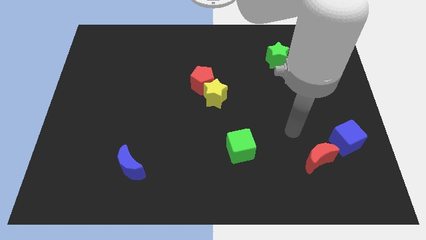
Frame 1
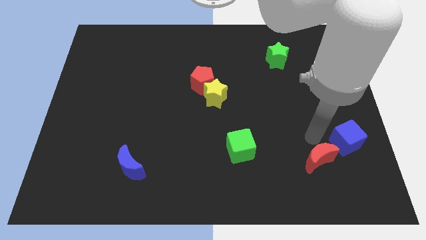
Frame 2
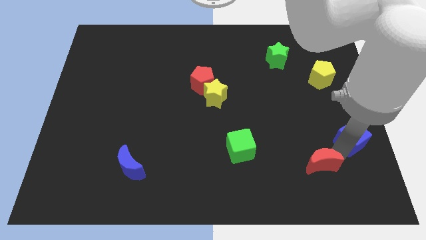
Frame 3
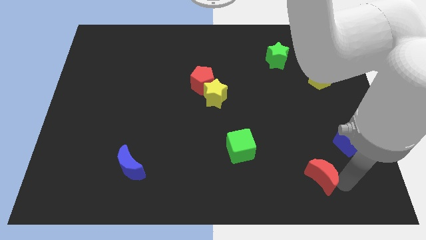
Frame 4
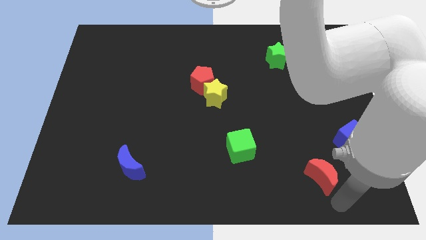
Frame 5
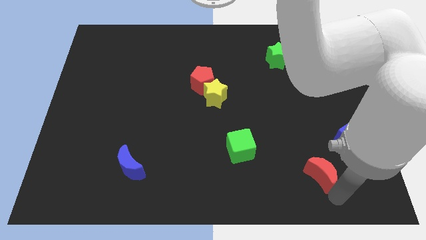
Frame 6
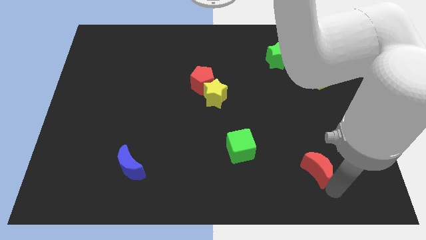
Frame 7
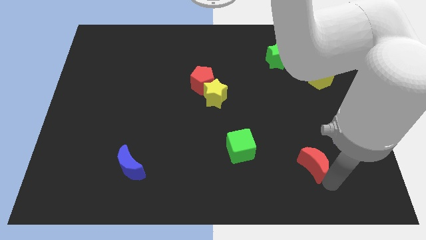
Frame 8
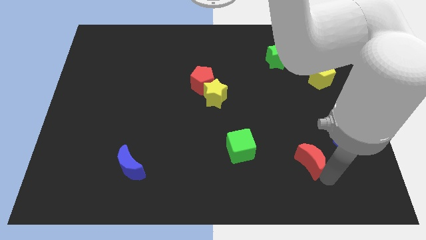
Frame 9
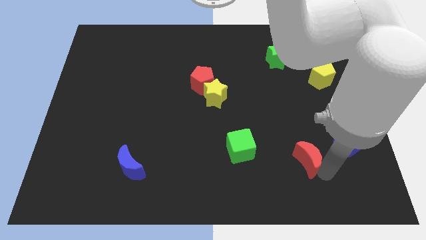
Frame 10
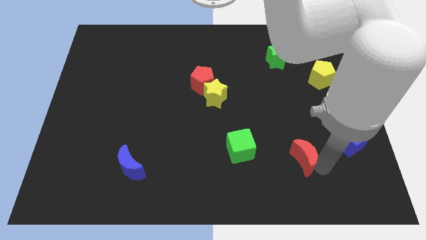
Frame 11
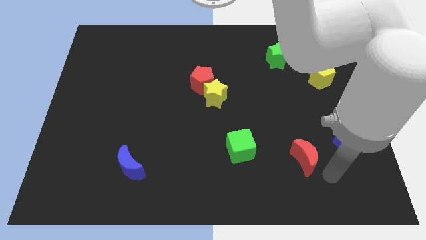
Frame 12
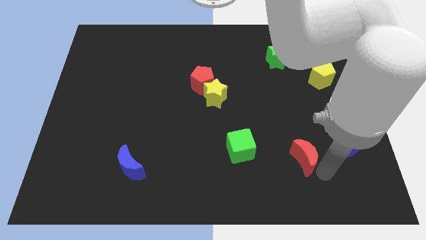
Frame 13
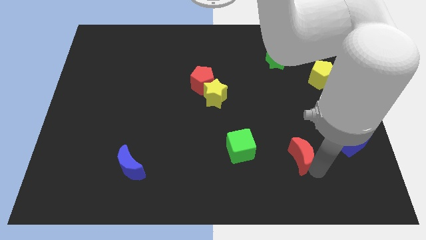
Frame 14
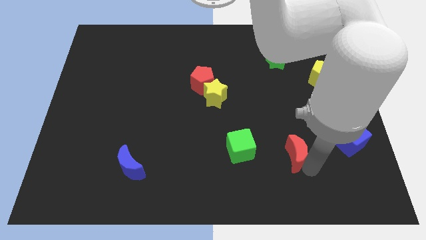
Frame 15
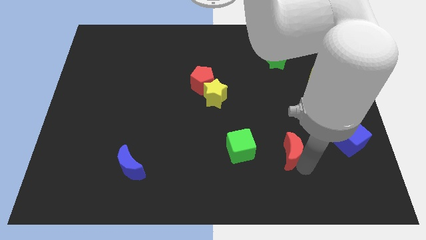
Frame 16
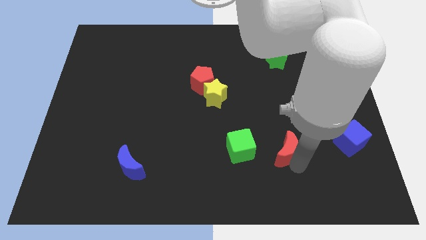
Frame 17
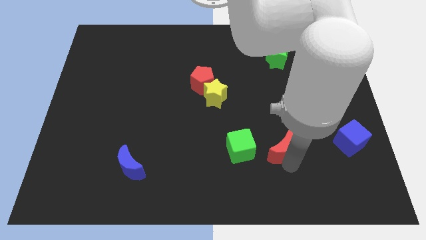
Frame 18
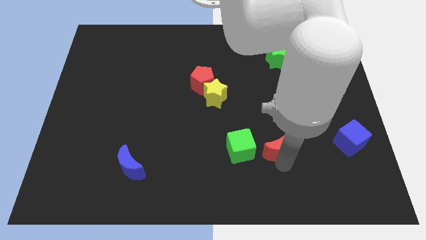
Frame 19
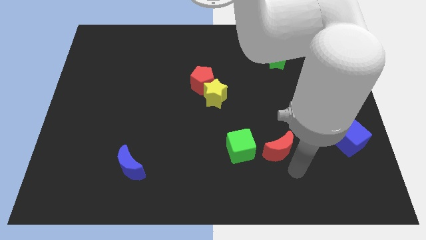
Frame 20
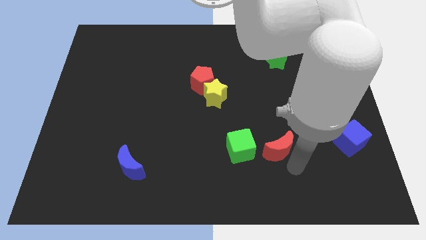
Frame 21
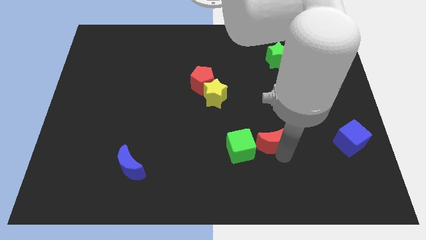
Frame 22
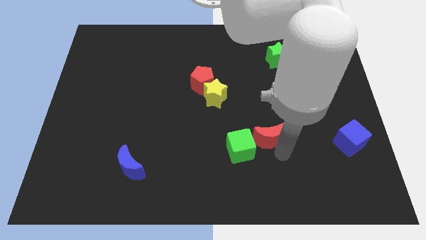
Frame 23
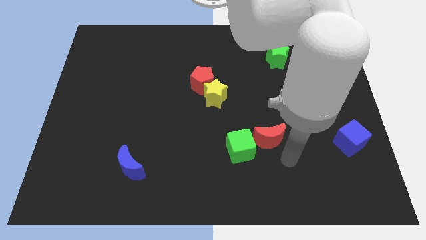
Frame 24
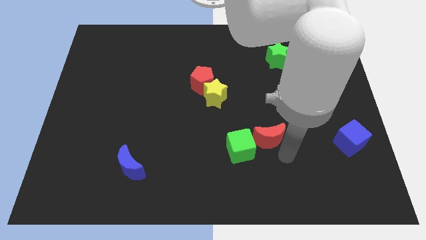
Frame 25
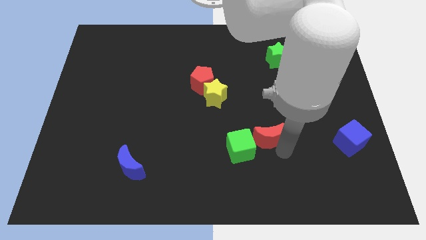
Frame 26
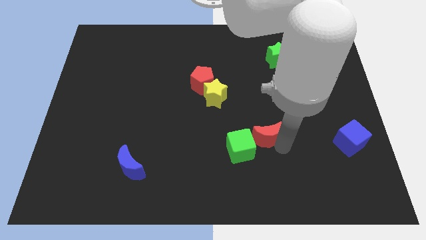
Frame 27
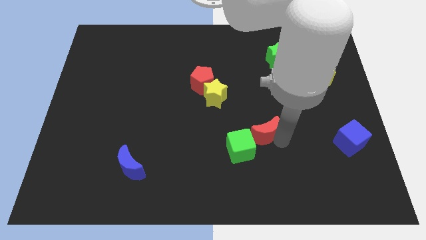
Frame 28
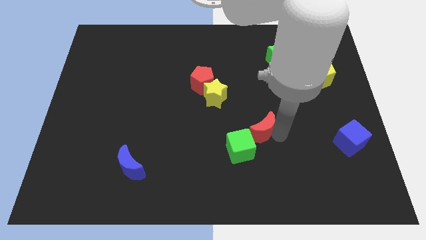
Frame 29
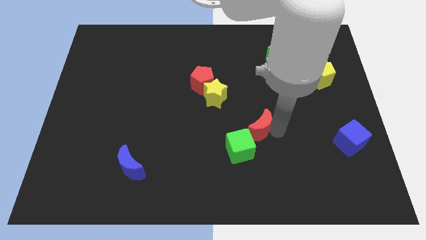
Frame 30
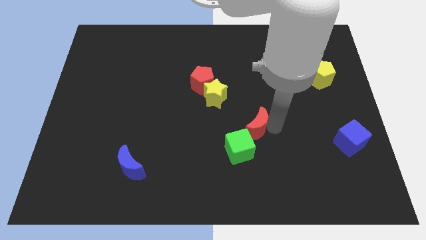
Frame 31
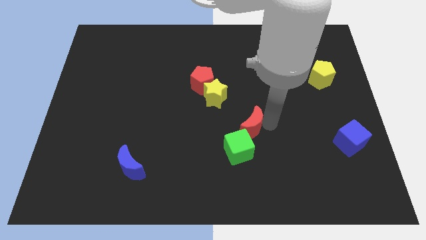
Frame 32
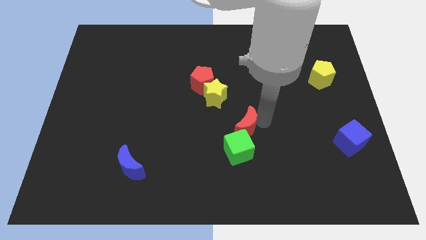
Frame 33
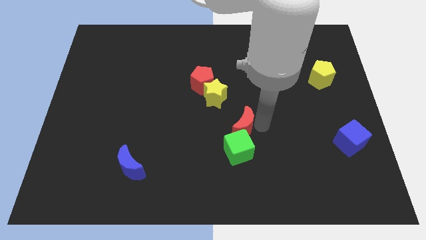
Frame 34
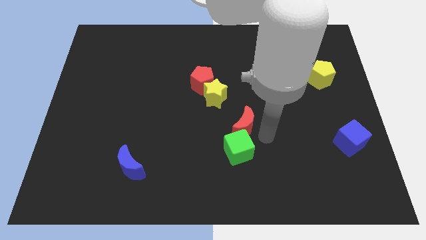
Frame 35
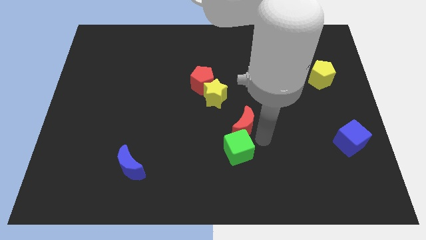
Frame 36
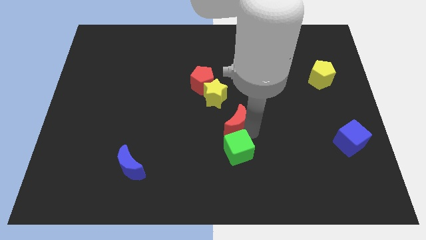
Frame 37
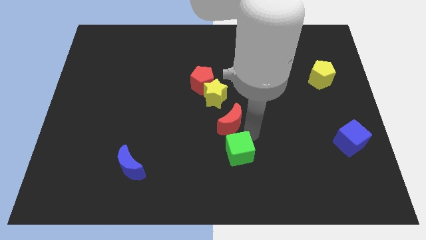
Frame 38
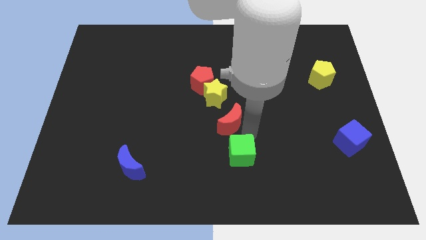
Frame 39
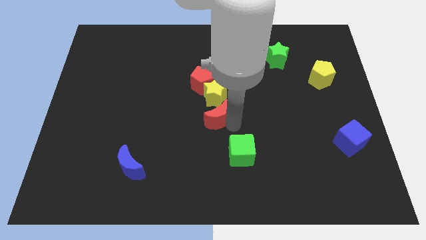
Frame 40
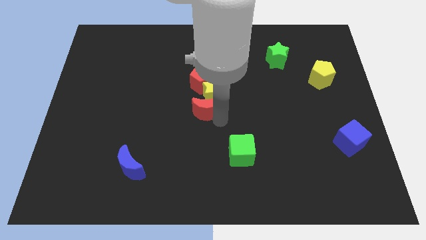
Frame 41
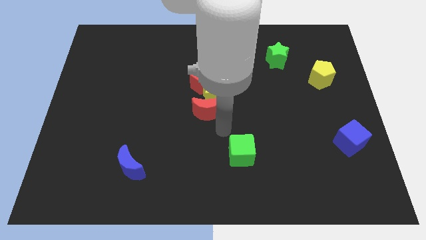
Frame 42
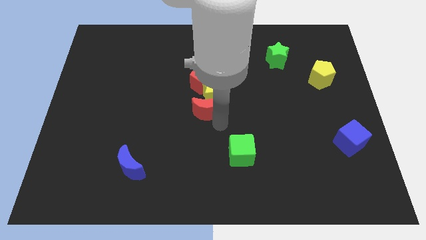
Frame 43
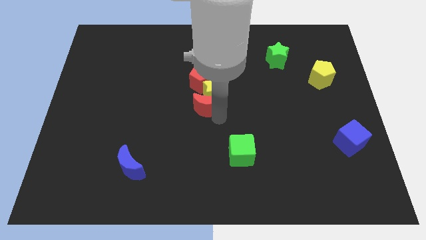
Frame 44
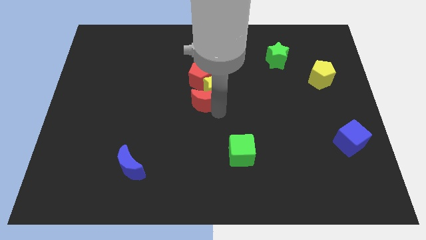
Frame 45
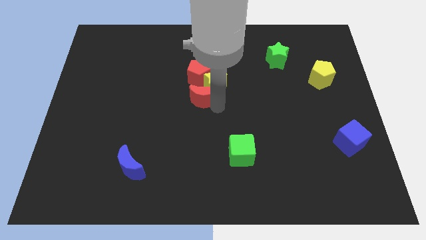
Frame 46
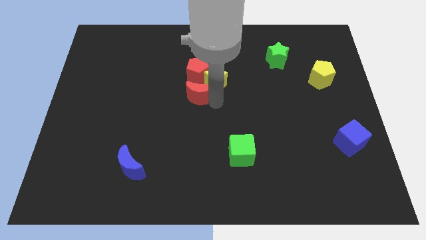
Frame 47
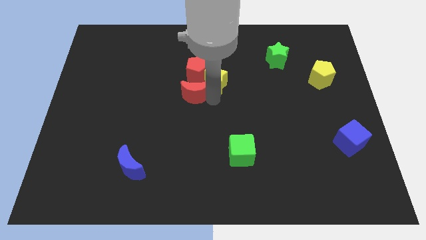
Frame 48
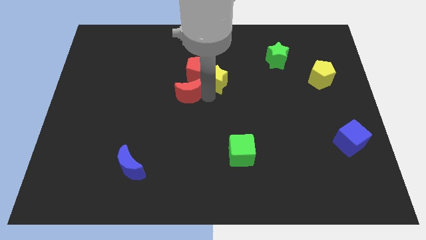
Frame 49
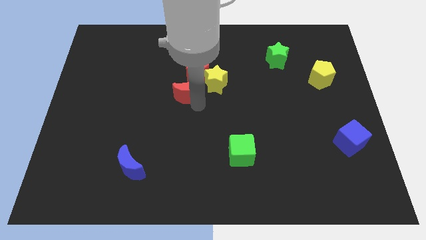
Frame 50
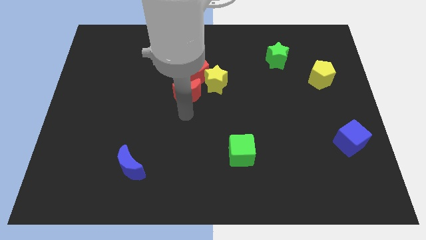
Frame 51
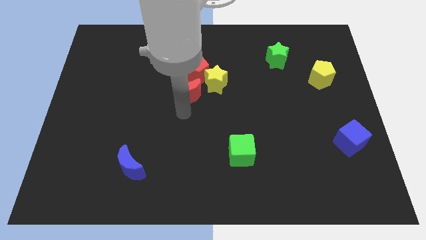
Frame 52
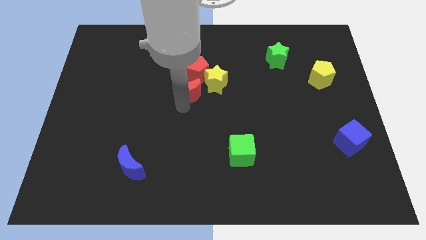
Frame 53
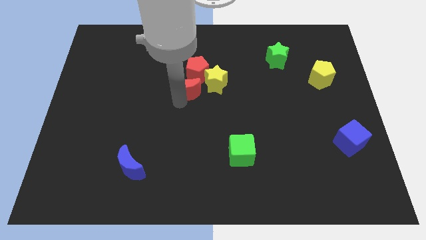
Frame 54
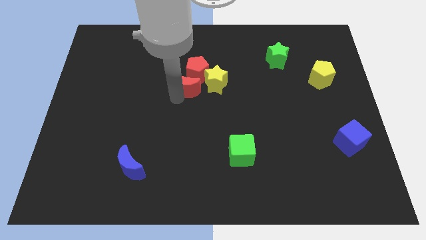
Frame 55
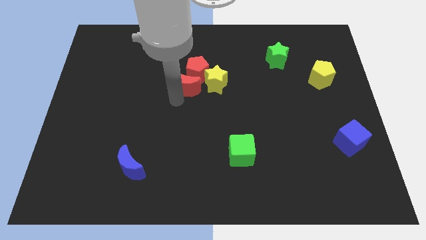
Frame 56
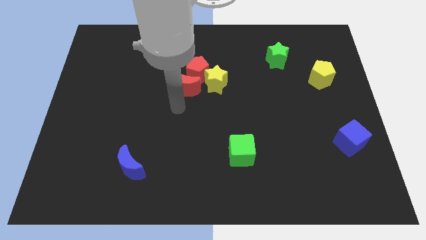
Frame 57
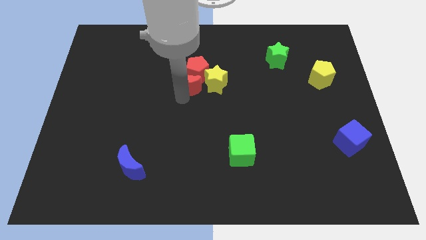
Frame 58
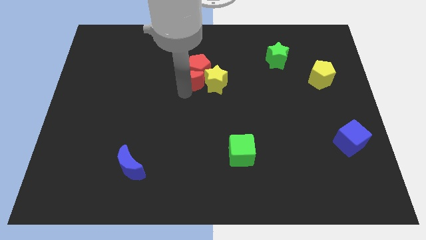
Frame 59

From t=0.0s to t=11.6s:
push the red moon to the top left side of the yellow star

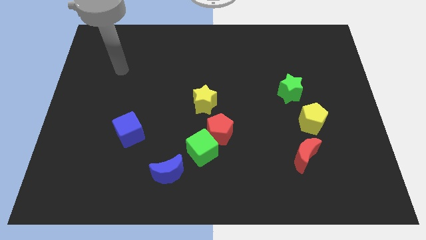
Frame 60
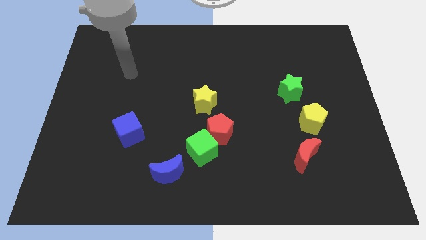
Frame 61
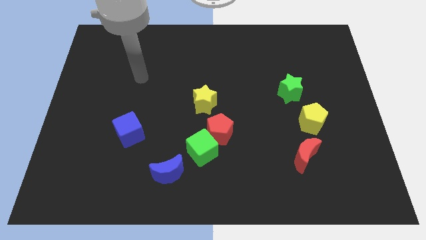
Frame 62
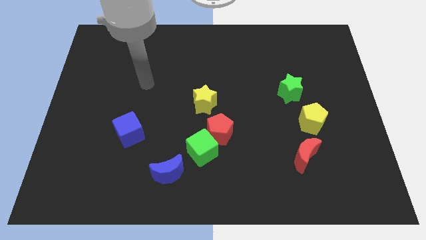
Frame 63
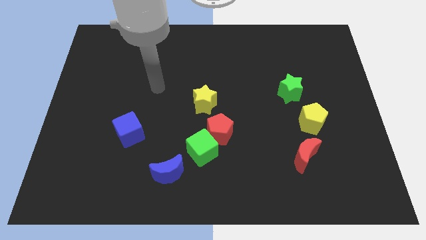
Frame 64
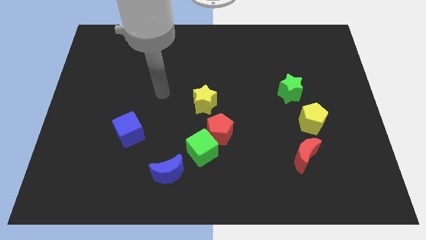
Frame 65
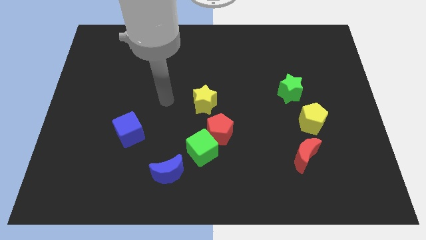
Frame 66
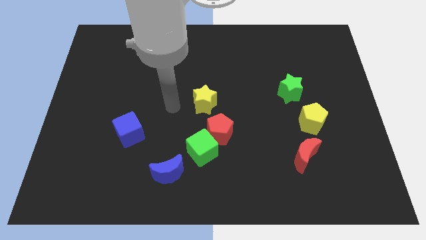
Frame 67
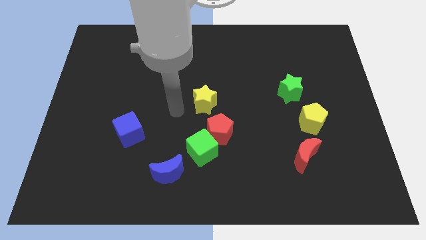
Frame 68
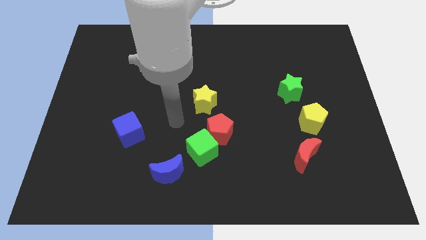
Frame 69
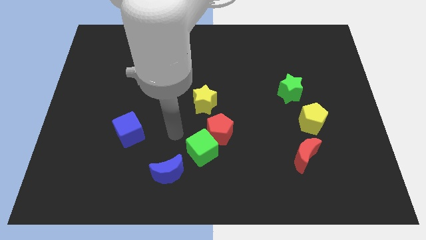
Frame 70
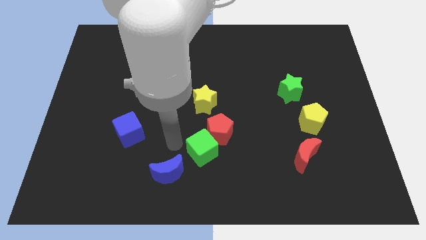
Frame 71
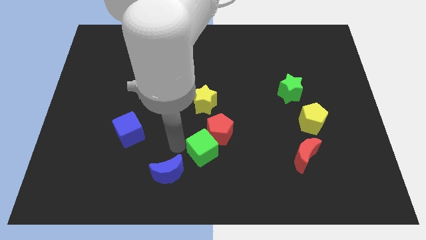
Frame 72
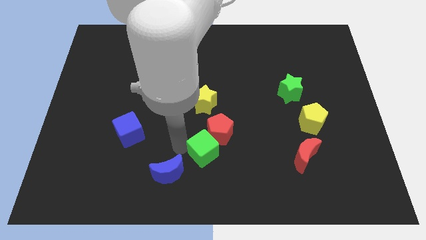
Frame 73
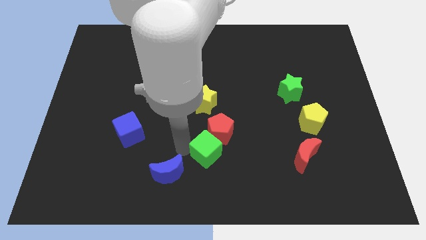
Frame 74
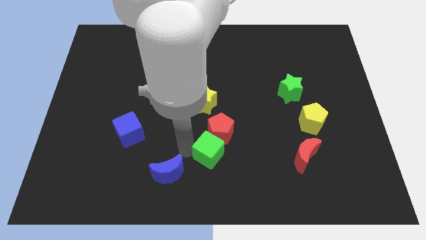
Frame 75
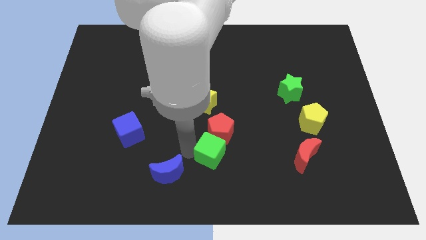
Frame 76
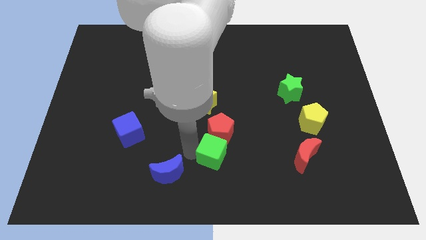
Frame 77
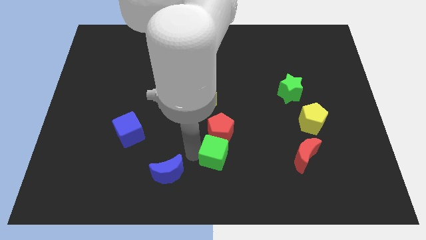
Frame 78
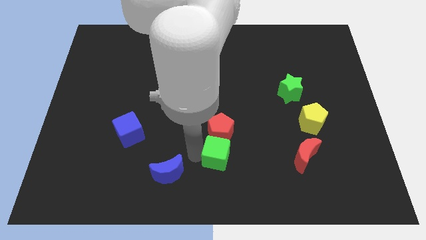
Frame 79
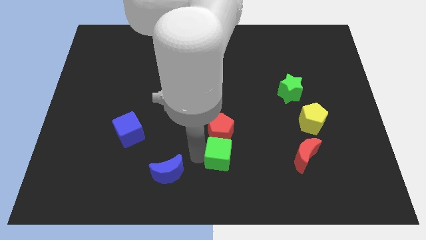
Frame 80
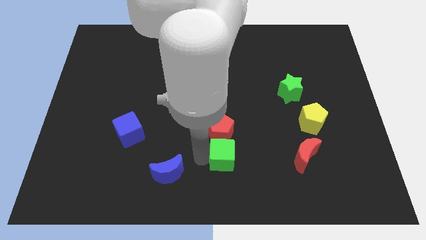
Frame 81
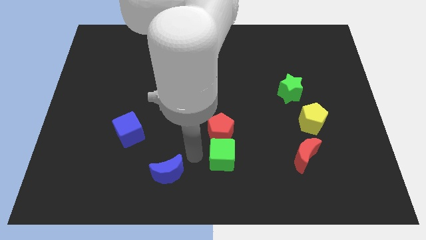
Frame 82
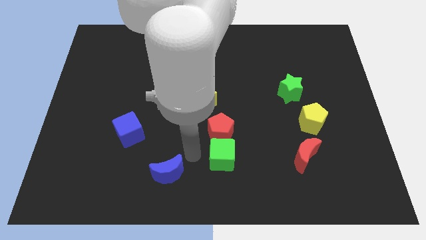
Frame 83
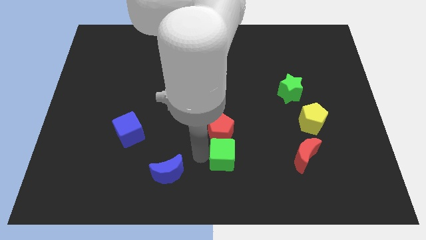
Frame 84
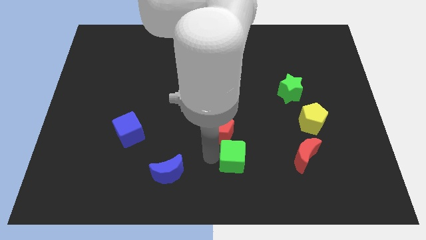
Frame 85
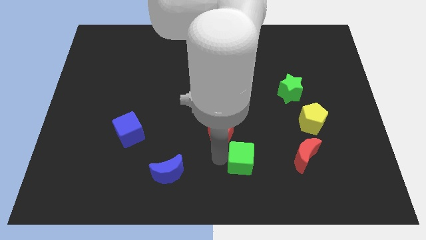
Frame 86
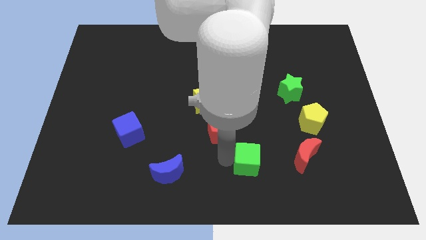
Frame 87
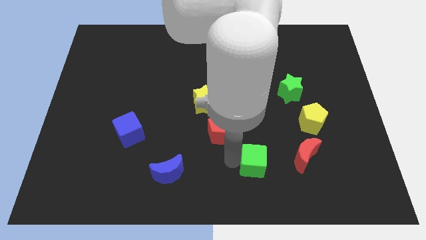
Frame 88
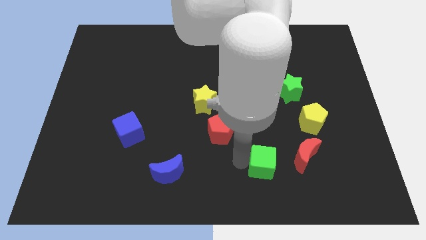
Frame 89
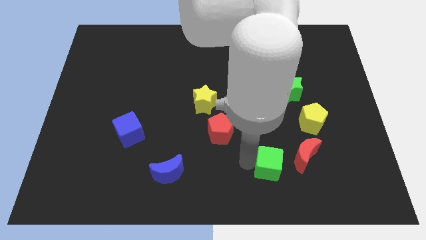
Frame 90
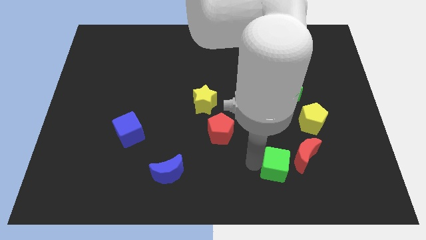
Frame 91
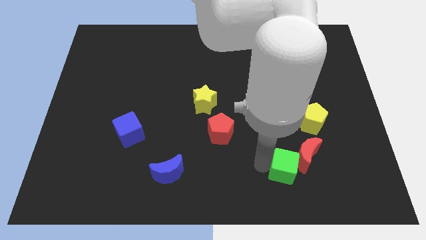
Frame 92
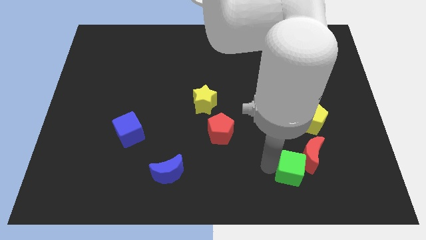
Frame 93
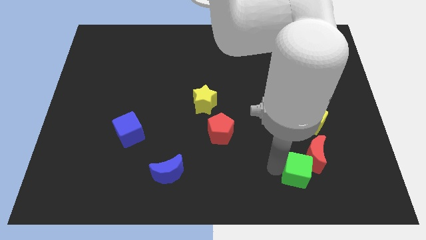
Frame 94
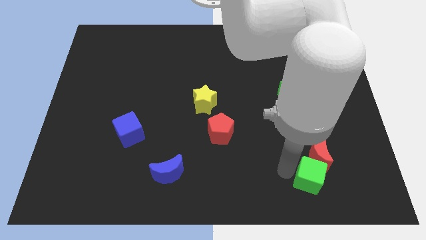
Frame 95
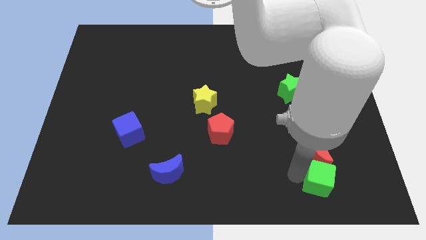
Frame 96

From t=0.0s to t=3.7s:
push the green cube diagonally down and to the right of the red moon
